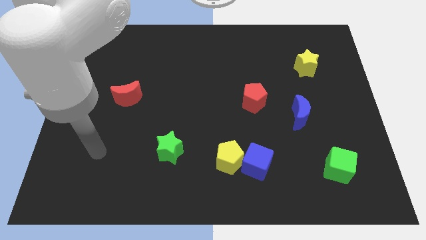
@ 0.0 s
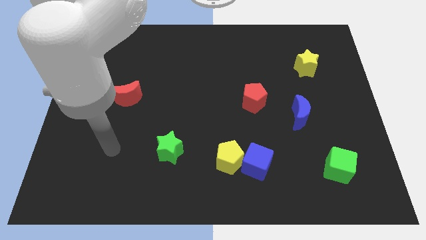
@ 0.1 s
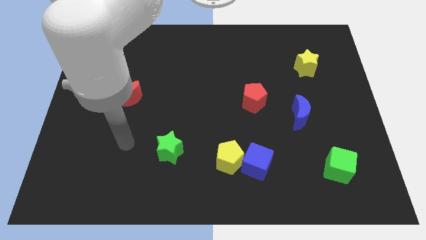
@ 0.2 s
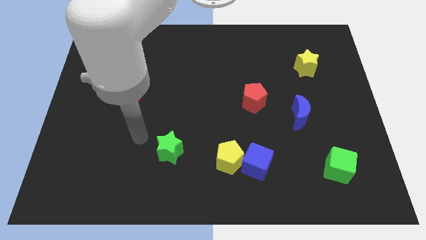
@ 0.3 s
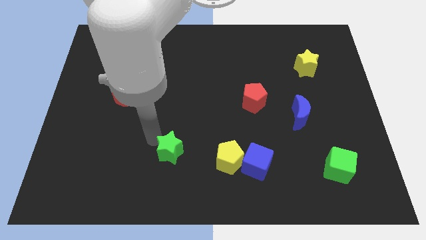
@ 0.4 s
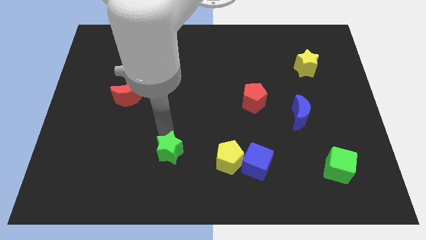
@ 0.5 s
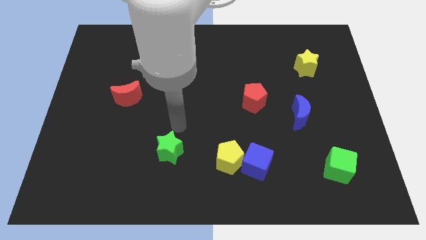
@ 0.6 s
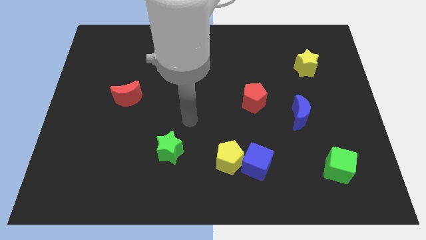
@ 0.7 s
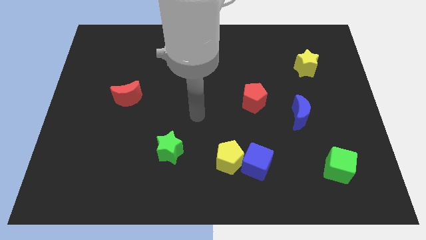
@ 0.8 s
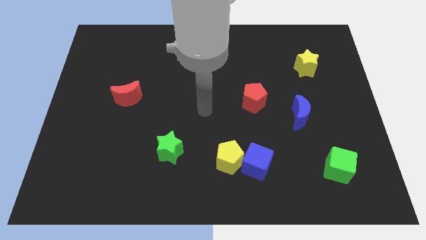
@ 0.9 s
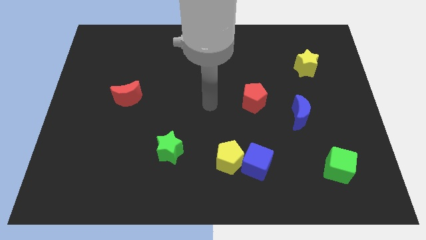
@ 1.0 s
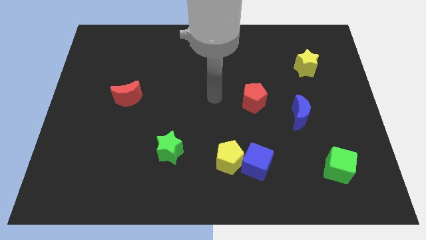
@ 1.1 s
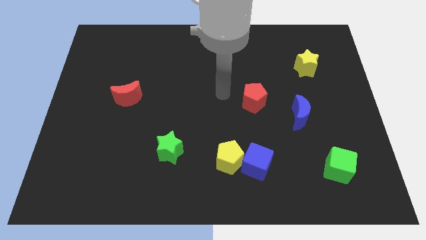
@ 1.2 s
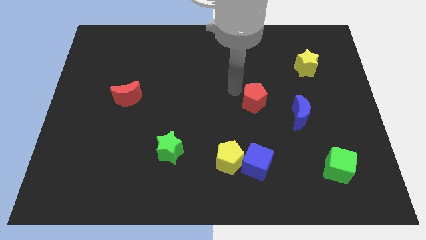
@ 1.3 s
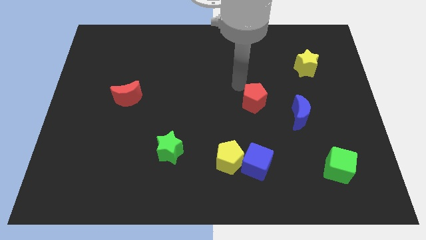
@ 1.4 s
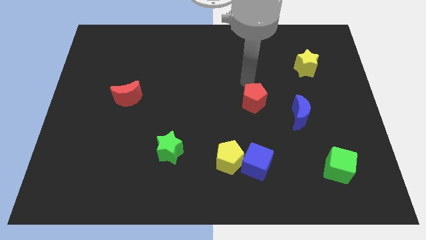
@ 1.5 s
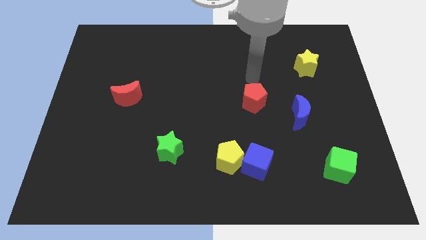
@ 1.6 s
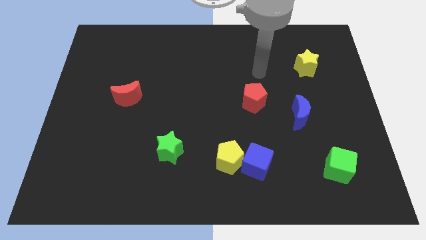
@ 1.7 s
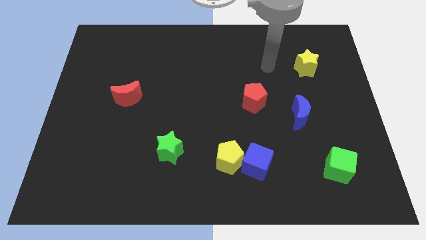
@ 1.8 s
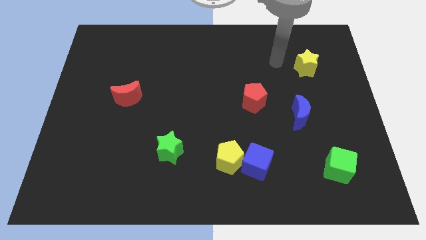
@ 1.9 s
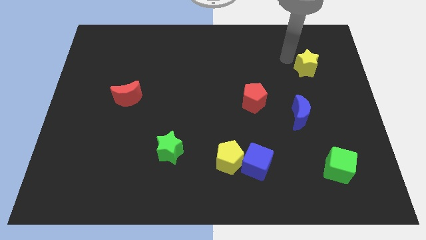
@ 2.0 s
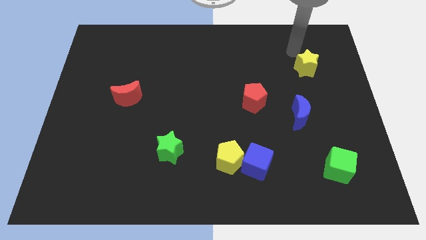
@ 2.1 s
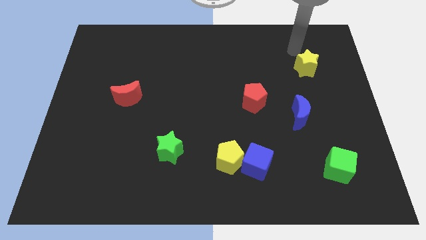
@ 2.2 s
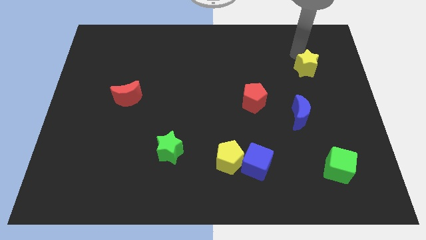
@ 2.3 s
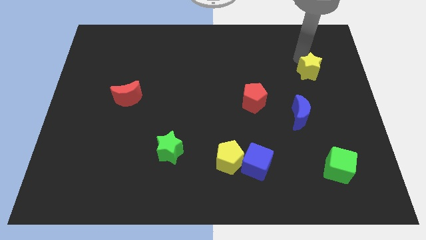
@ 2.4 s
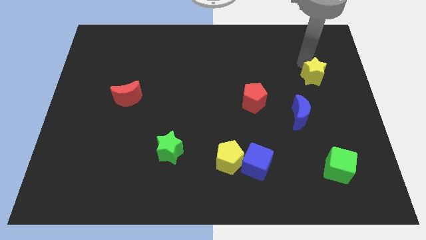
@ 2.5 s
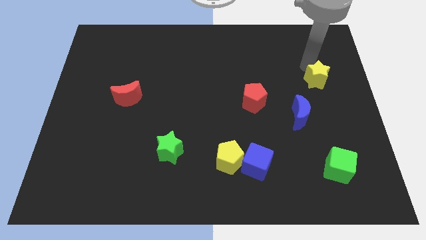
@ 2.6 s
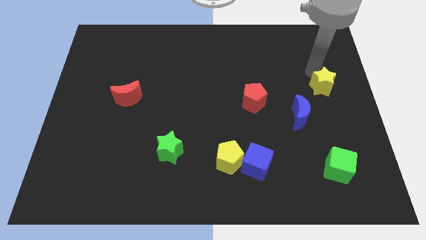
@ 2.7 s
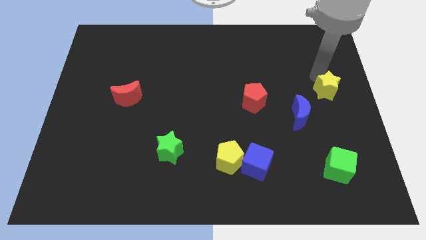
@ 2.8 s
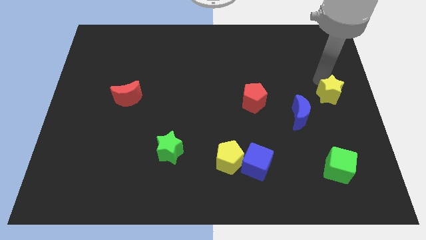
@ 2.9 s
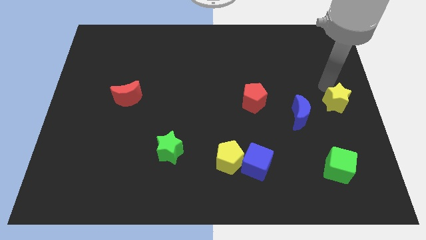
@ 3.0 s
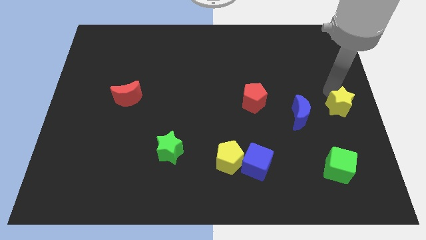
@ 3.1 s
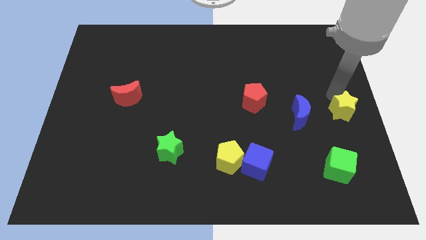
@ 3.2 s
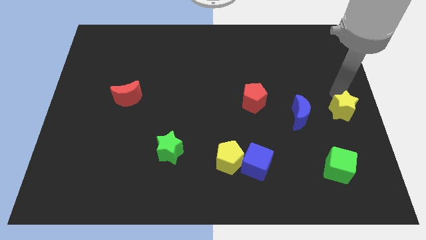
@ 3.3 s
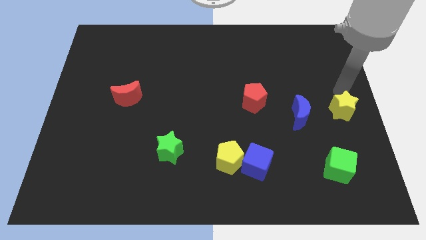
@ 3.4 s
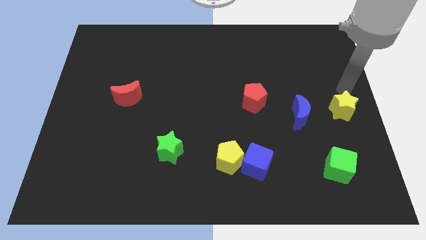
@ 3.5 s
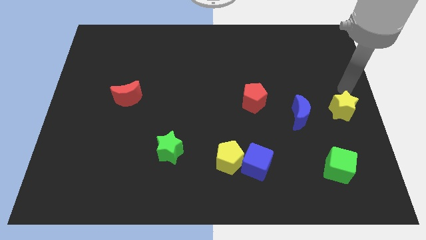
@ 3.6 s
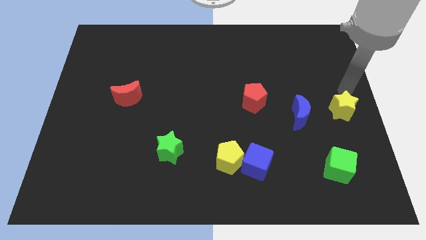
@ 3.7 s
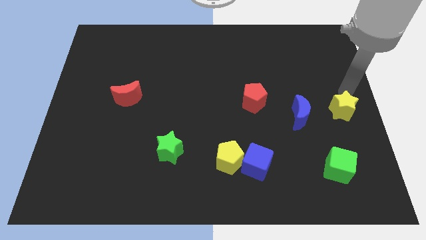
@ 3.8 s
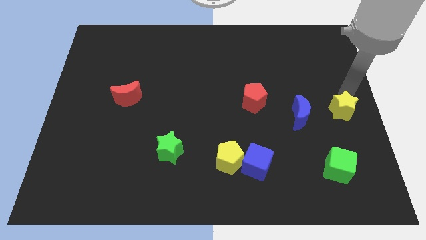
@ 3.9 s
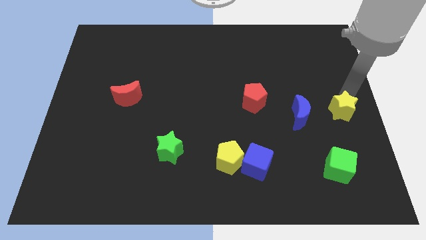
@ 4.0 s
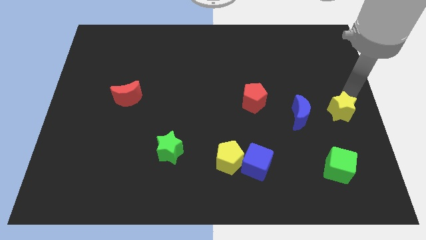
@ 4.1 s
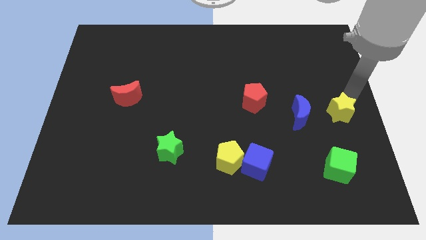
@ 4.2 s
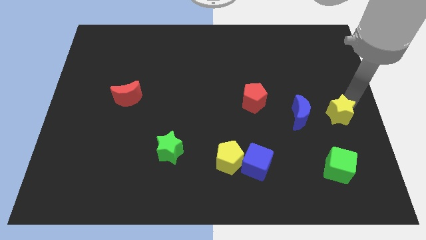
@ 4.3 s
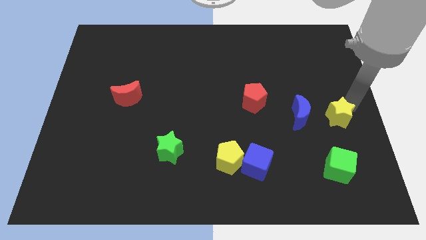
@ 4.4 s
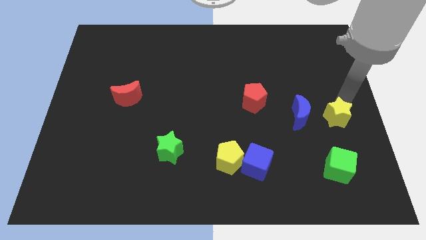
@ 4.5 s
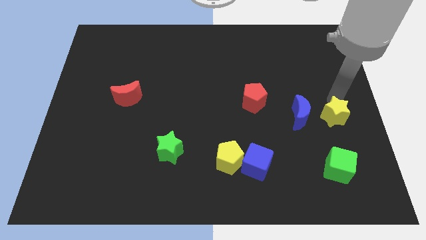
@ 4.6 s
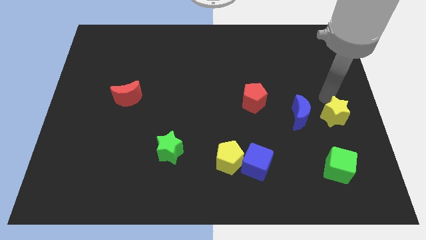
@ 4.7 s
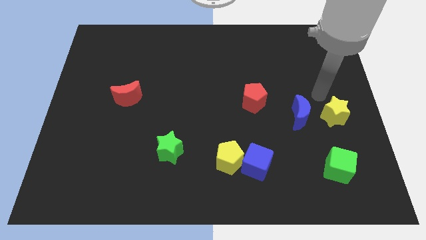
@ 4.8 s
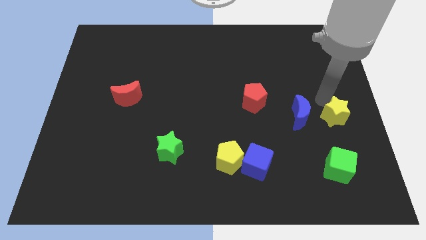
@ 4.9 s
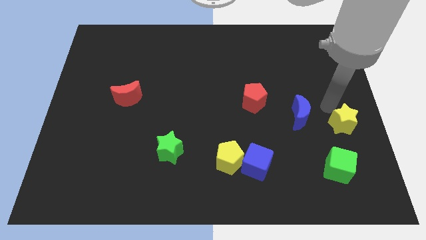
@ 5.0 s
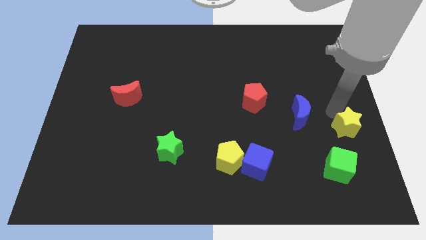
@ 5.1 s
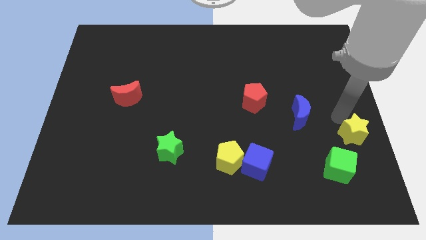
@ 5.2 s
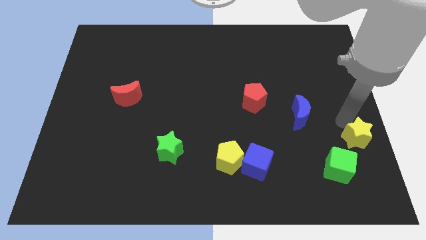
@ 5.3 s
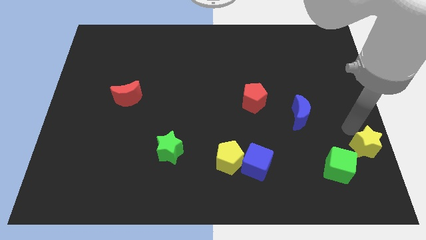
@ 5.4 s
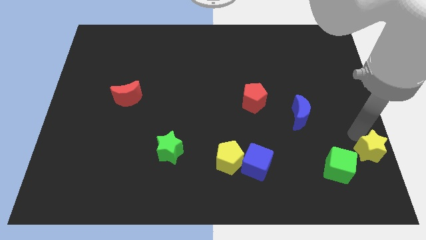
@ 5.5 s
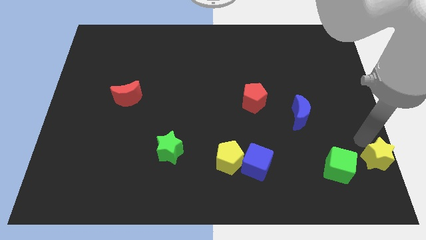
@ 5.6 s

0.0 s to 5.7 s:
move the yellow star to the bottom right

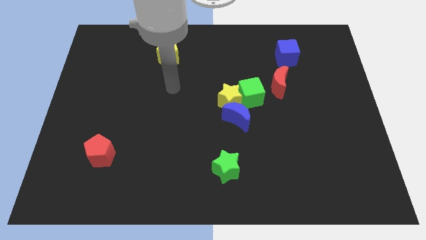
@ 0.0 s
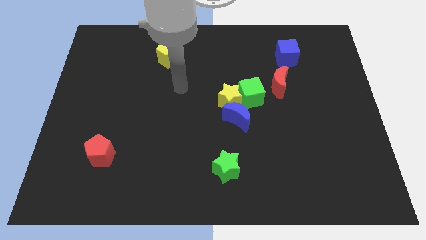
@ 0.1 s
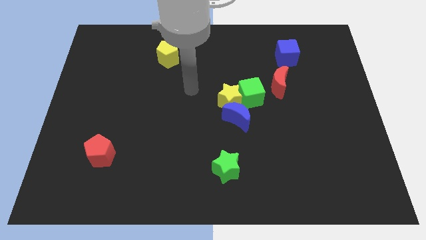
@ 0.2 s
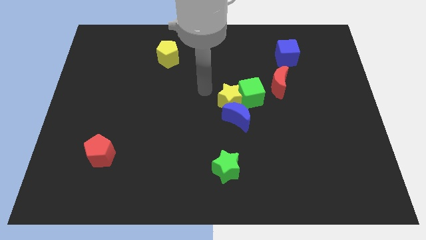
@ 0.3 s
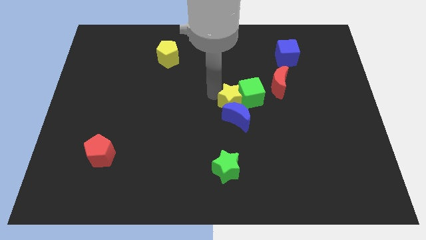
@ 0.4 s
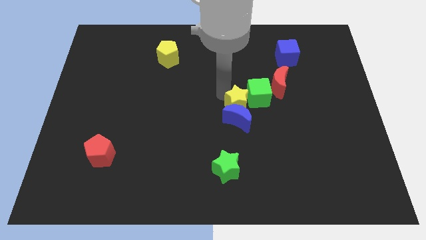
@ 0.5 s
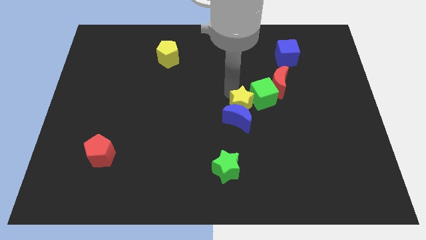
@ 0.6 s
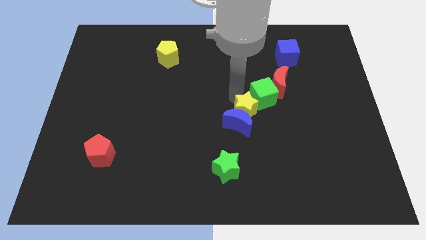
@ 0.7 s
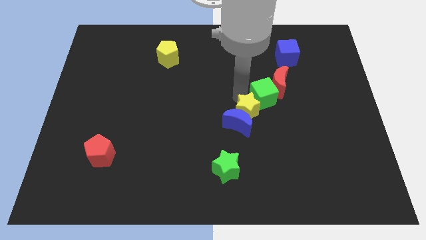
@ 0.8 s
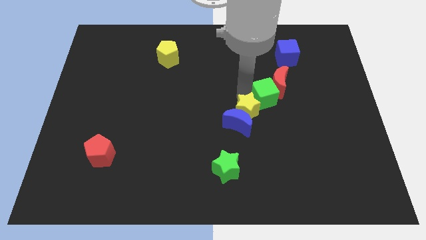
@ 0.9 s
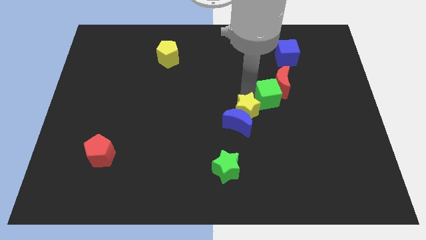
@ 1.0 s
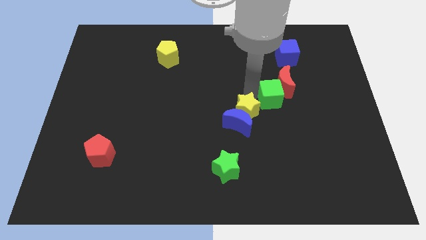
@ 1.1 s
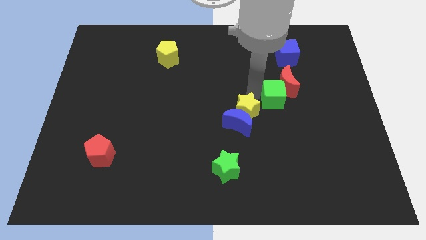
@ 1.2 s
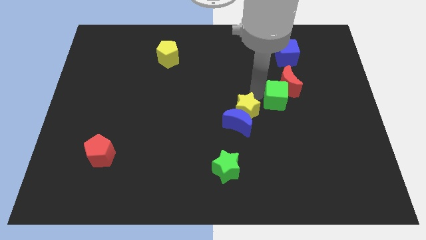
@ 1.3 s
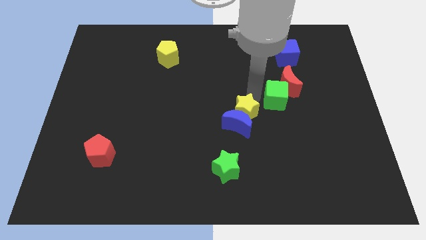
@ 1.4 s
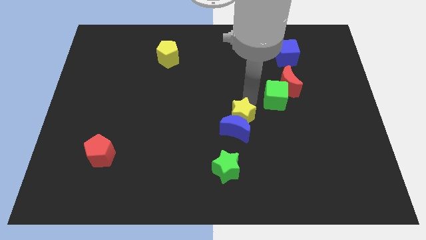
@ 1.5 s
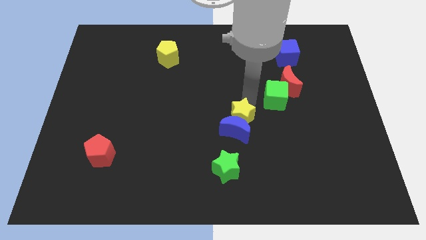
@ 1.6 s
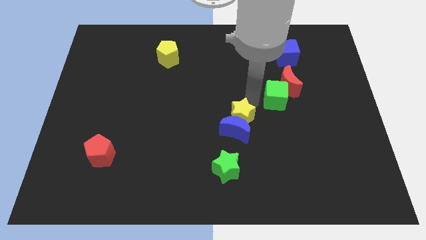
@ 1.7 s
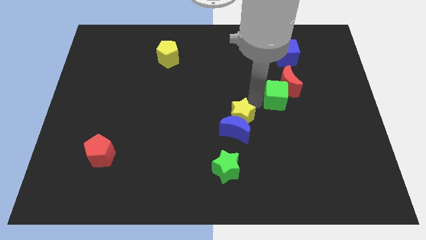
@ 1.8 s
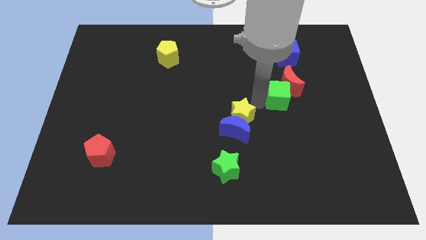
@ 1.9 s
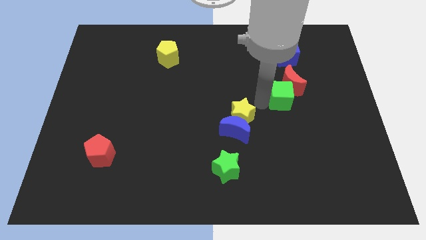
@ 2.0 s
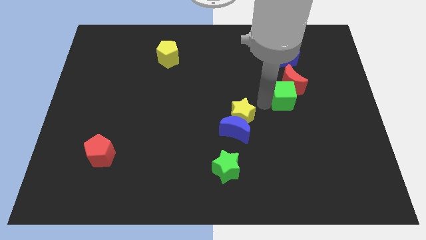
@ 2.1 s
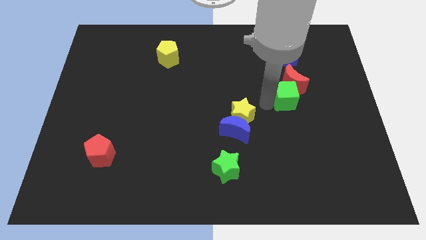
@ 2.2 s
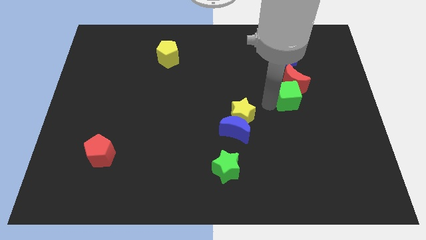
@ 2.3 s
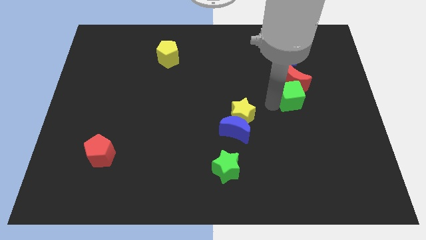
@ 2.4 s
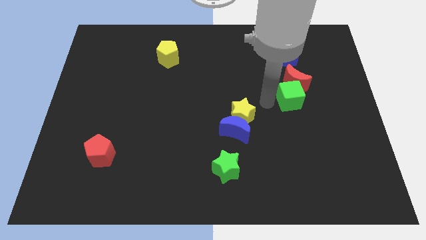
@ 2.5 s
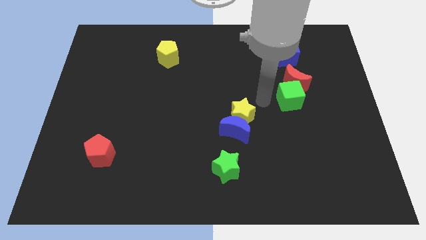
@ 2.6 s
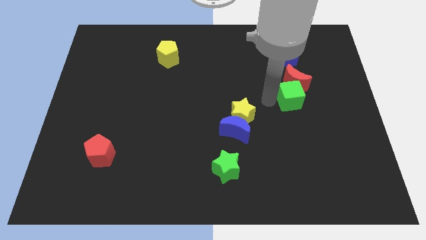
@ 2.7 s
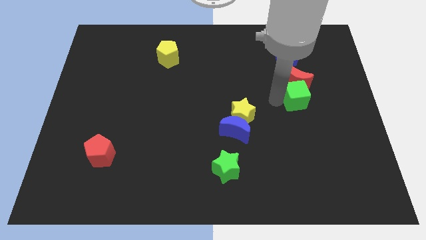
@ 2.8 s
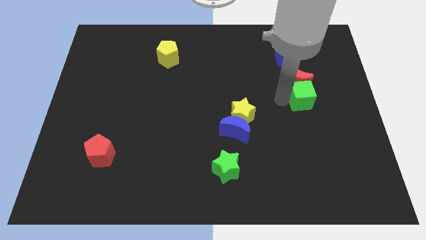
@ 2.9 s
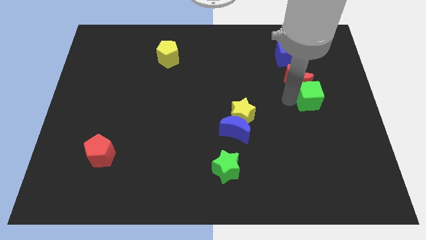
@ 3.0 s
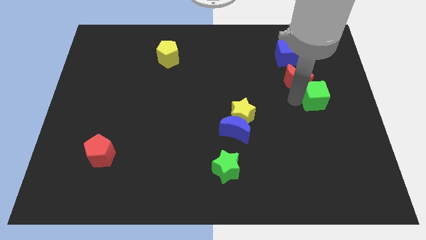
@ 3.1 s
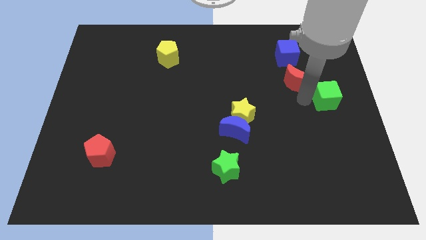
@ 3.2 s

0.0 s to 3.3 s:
push the green cube to the right side of the board
